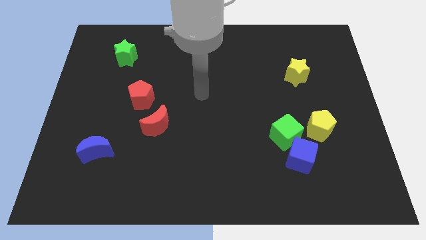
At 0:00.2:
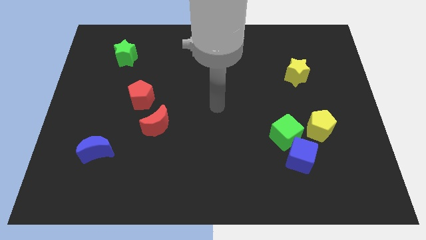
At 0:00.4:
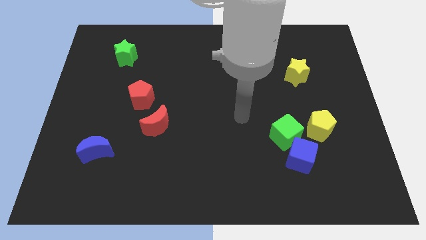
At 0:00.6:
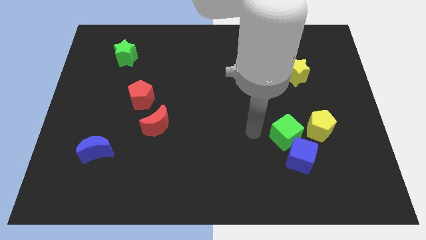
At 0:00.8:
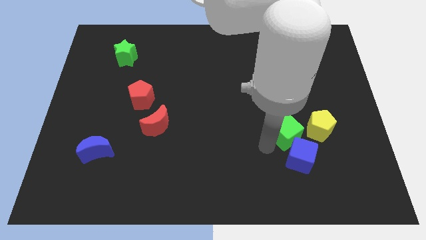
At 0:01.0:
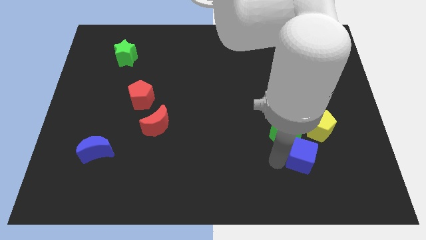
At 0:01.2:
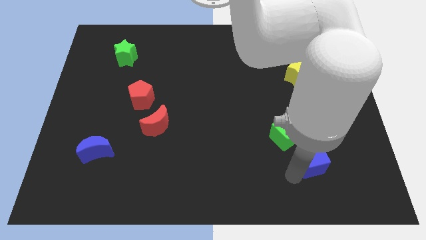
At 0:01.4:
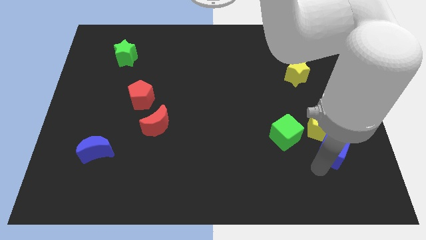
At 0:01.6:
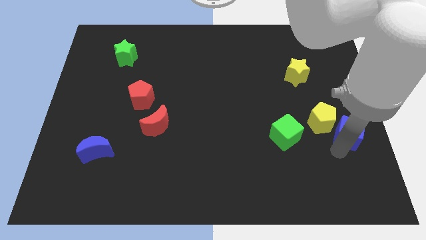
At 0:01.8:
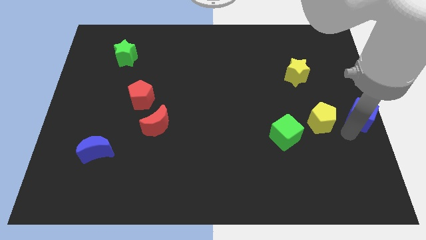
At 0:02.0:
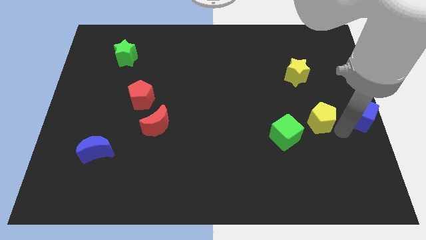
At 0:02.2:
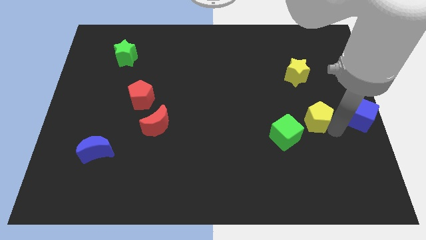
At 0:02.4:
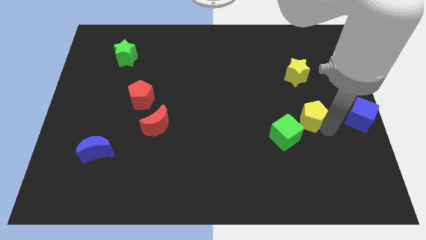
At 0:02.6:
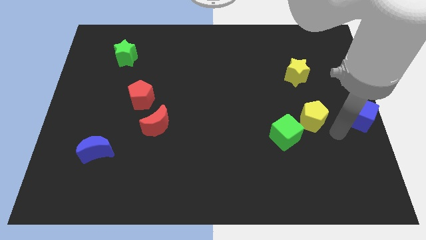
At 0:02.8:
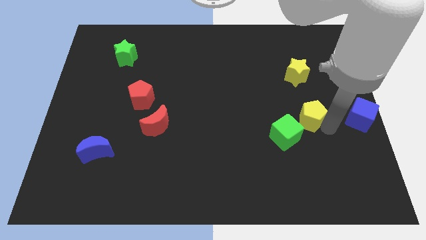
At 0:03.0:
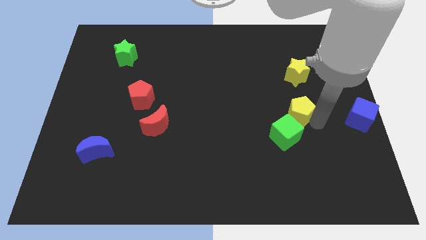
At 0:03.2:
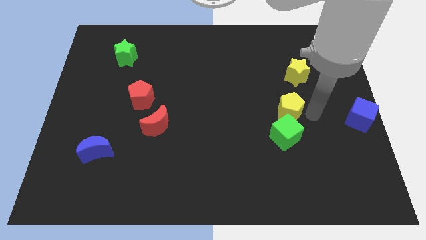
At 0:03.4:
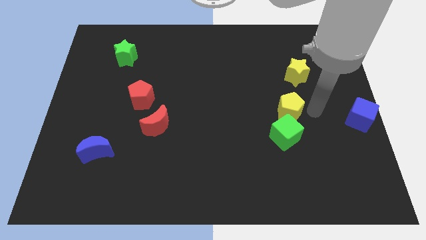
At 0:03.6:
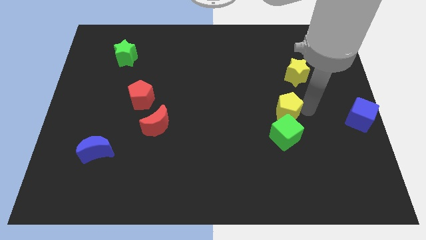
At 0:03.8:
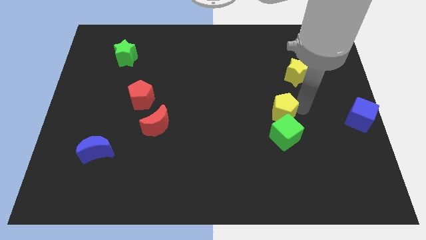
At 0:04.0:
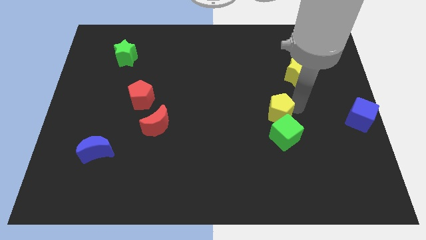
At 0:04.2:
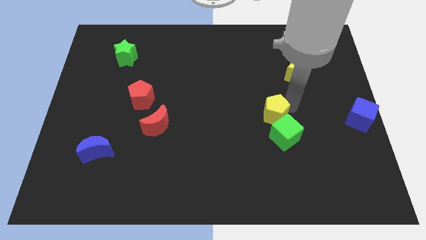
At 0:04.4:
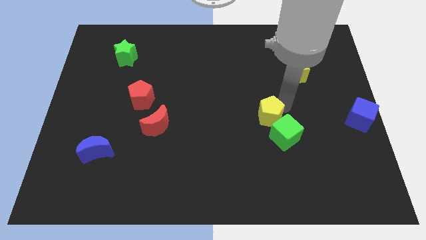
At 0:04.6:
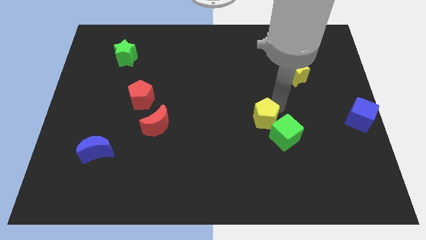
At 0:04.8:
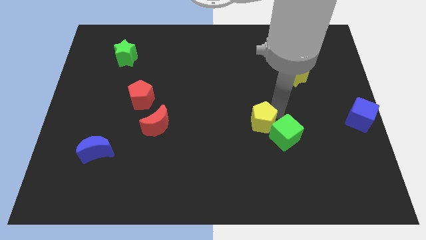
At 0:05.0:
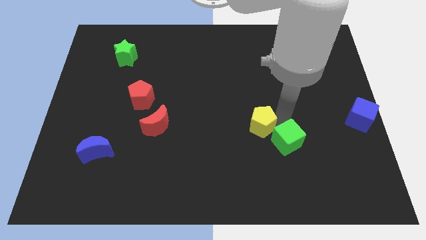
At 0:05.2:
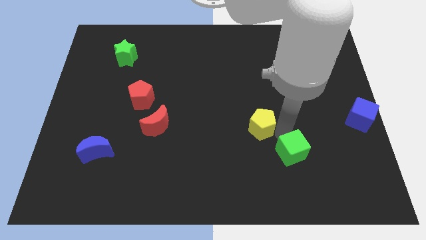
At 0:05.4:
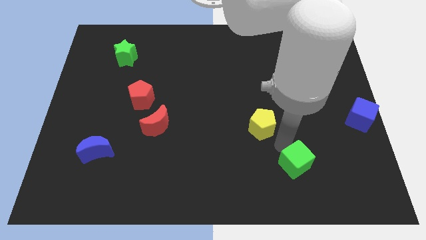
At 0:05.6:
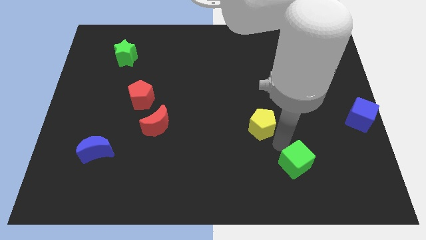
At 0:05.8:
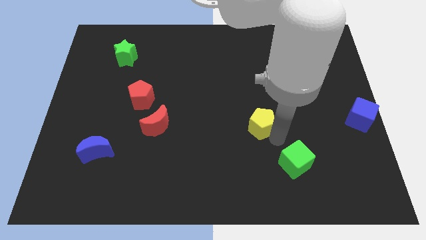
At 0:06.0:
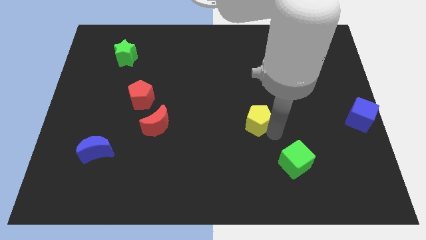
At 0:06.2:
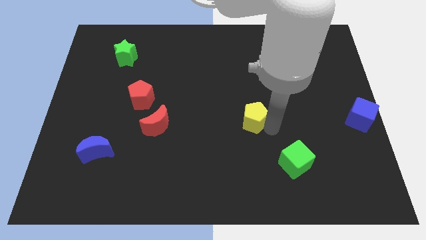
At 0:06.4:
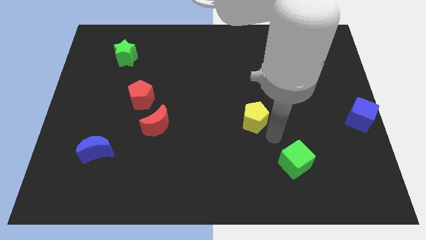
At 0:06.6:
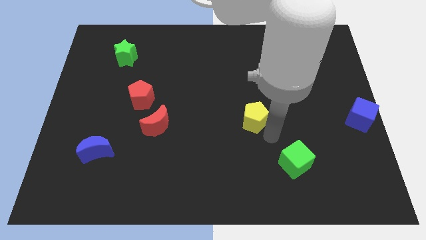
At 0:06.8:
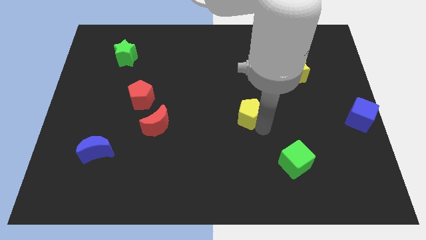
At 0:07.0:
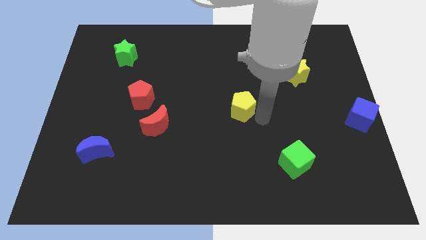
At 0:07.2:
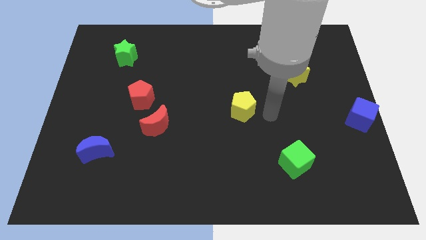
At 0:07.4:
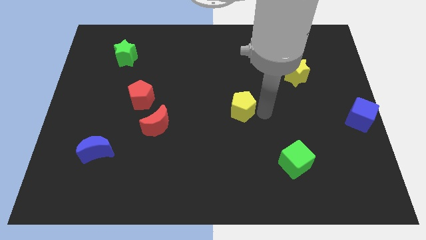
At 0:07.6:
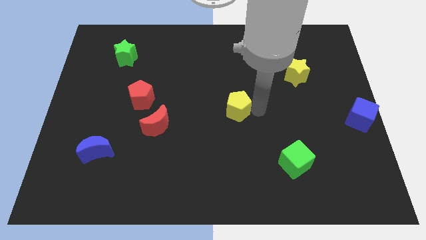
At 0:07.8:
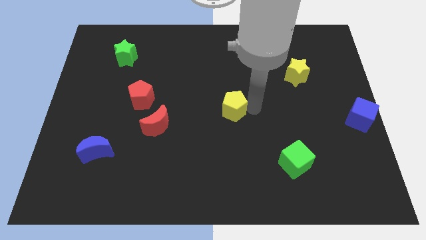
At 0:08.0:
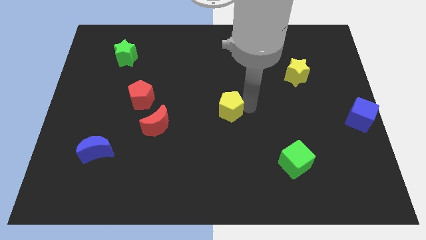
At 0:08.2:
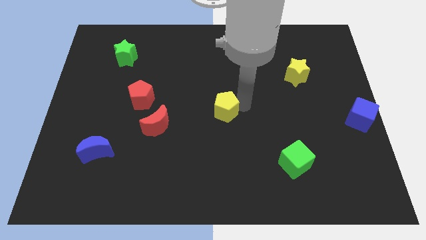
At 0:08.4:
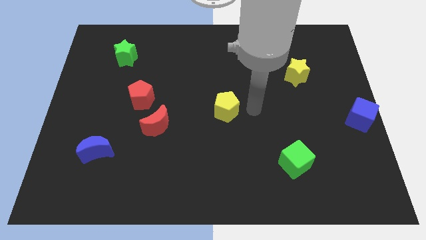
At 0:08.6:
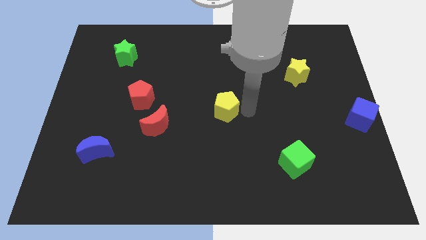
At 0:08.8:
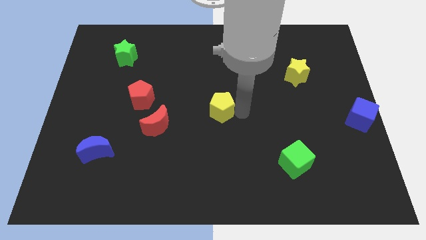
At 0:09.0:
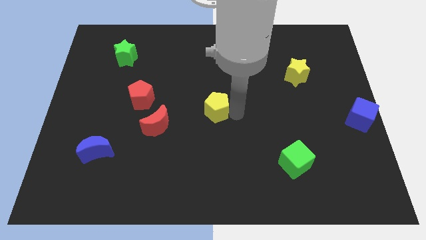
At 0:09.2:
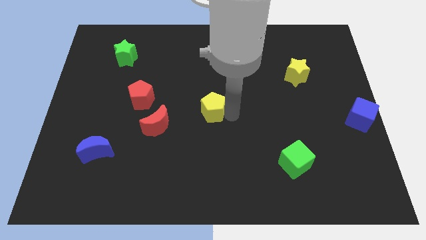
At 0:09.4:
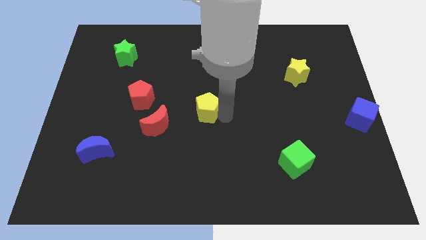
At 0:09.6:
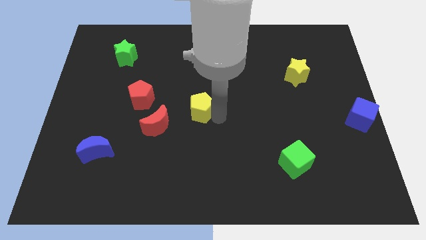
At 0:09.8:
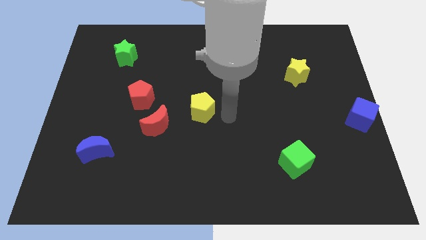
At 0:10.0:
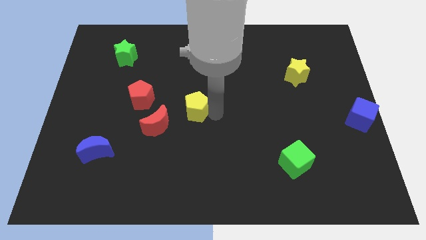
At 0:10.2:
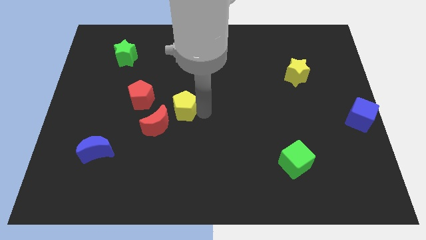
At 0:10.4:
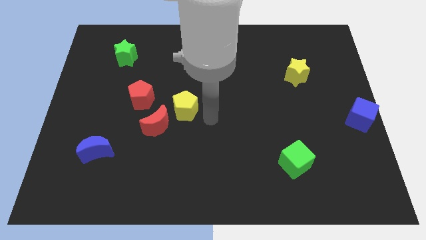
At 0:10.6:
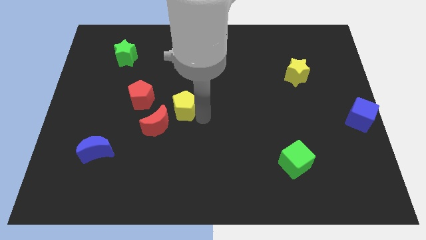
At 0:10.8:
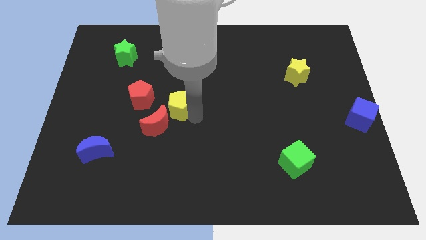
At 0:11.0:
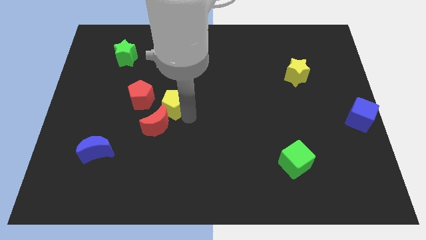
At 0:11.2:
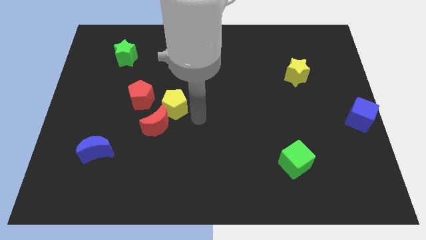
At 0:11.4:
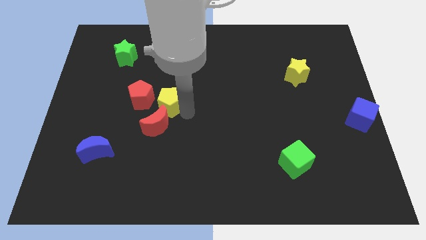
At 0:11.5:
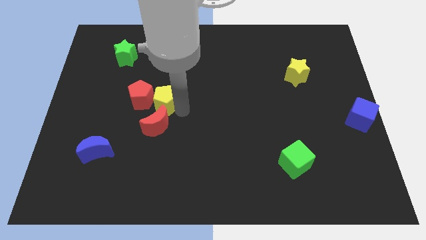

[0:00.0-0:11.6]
put the yellow pentagon towards the red pentagon

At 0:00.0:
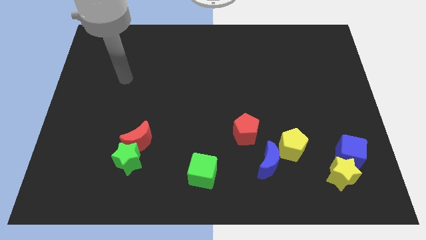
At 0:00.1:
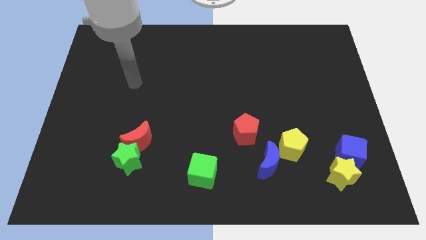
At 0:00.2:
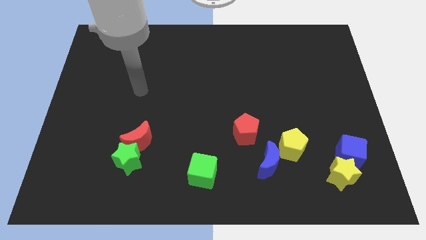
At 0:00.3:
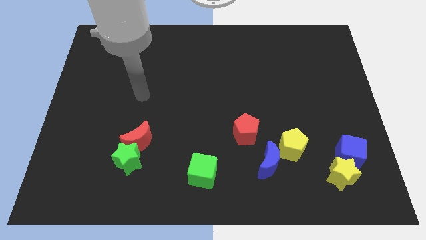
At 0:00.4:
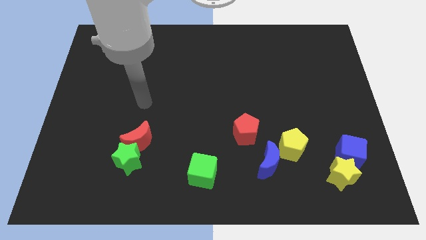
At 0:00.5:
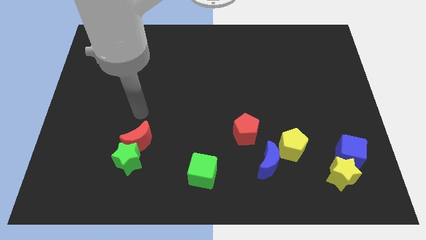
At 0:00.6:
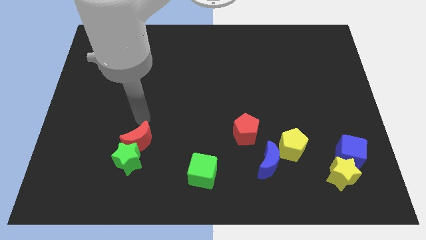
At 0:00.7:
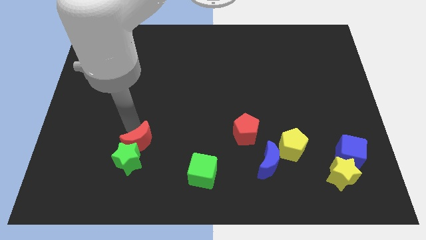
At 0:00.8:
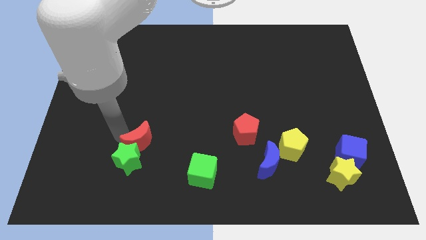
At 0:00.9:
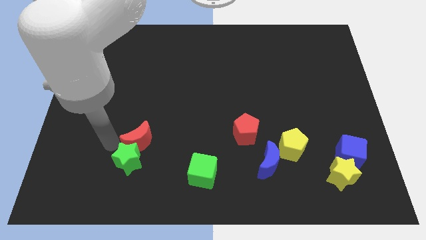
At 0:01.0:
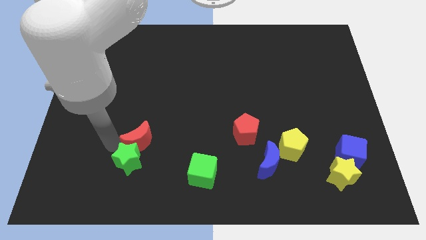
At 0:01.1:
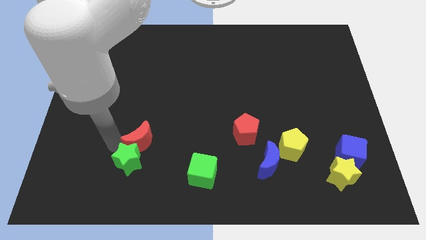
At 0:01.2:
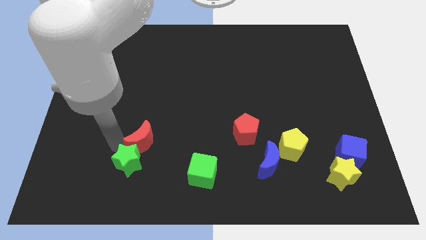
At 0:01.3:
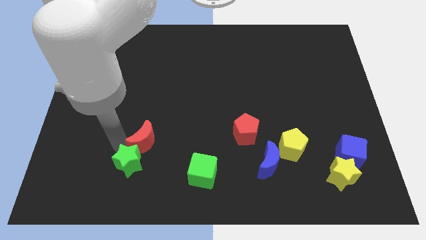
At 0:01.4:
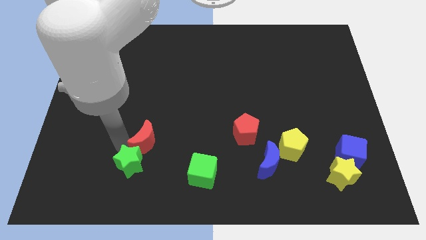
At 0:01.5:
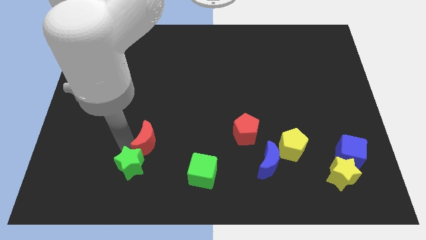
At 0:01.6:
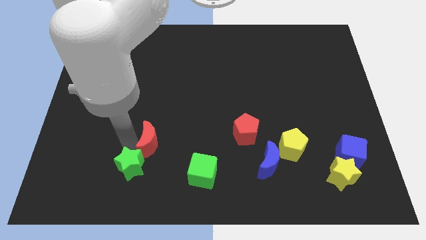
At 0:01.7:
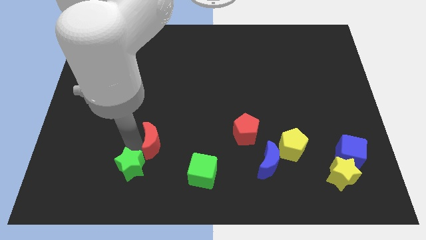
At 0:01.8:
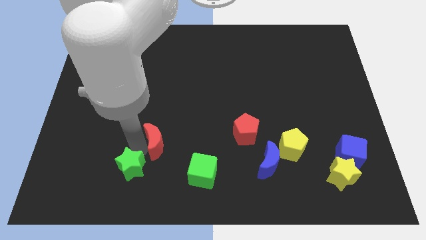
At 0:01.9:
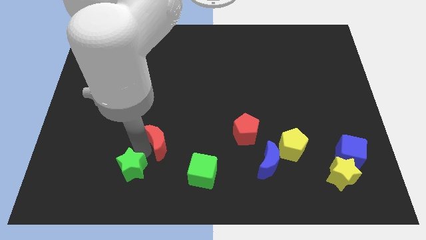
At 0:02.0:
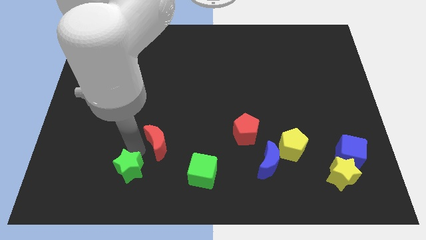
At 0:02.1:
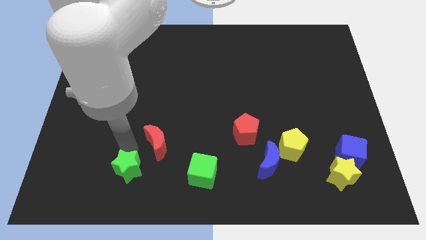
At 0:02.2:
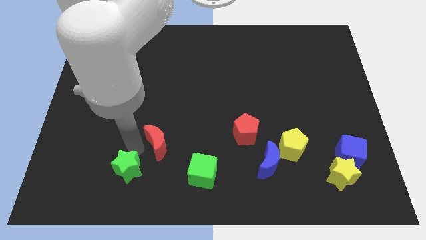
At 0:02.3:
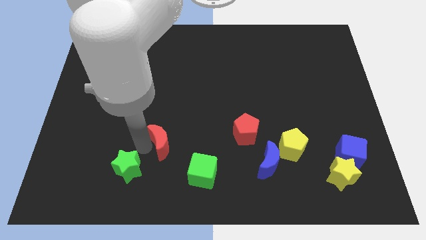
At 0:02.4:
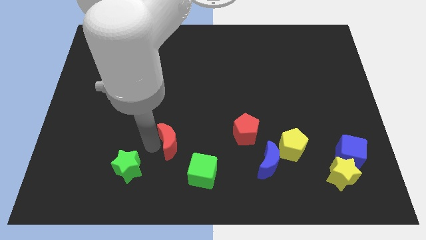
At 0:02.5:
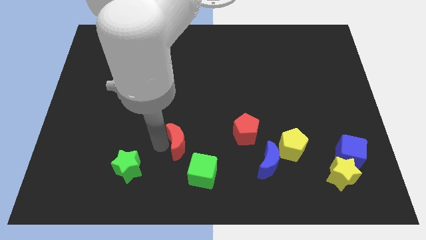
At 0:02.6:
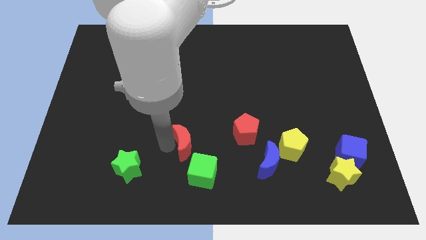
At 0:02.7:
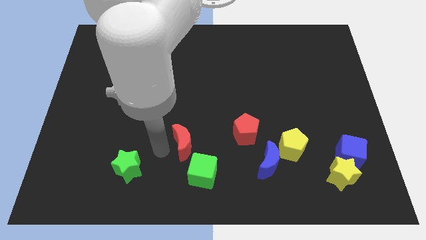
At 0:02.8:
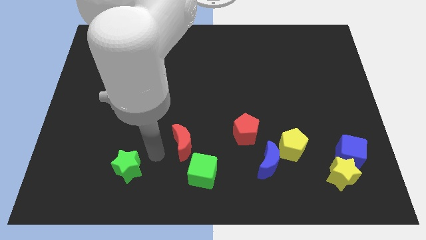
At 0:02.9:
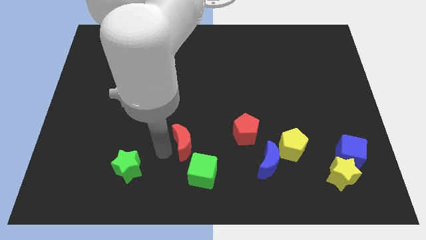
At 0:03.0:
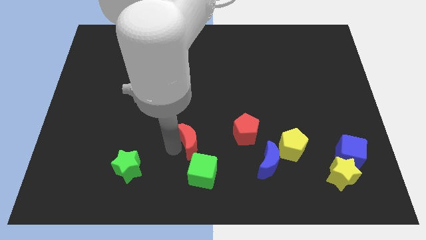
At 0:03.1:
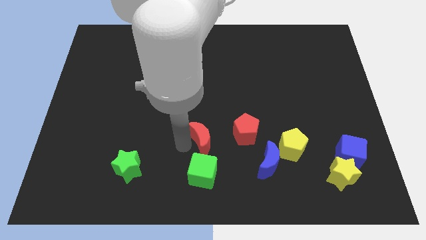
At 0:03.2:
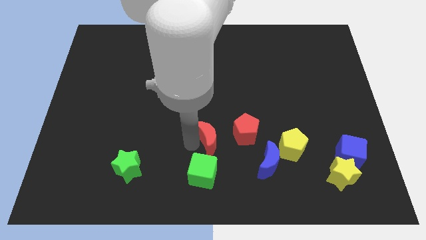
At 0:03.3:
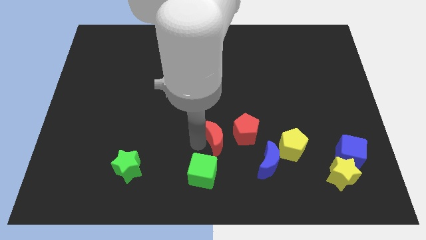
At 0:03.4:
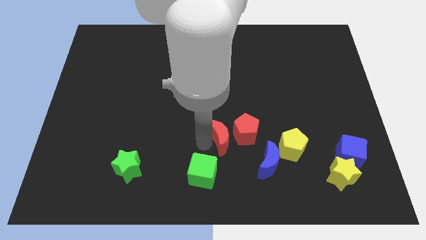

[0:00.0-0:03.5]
push the red moon close to the red pentagon
